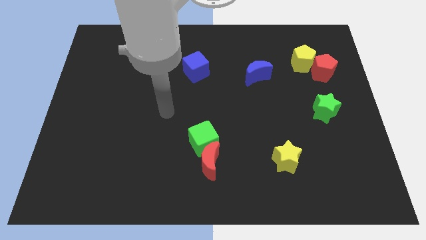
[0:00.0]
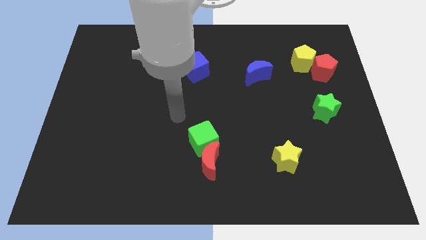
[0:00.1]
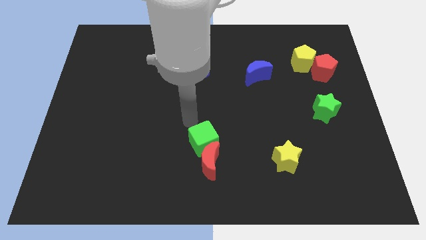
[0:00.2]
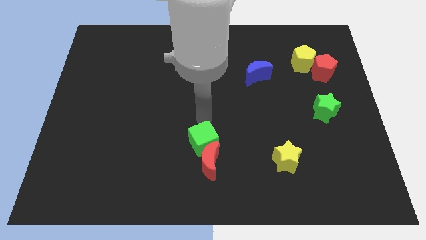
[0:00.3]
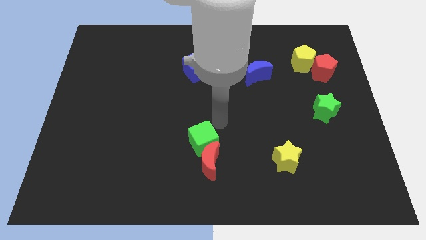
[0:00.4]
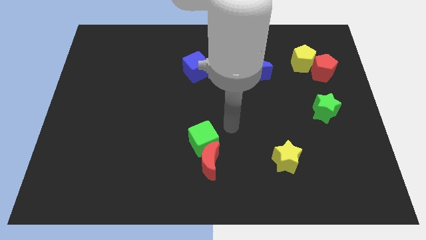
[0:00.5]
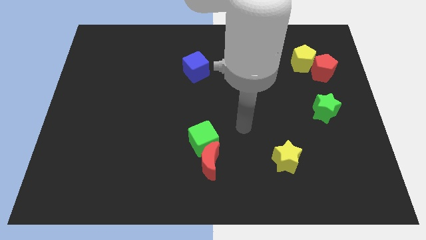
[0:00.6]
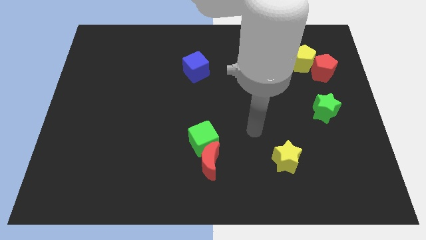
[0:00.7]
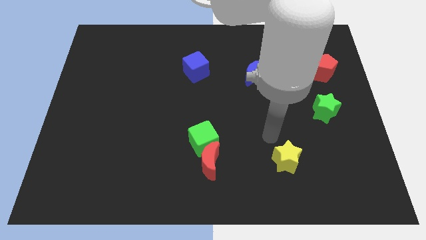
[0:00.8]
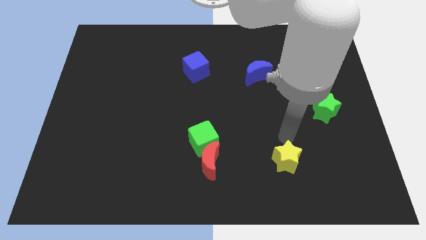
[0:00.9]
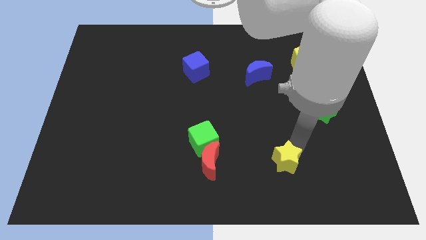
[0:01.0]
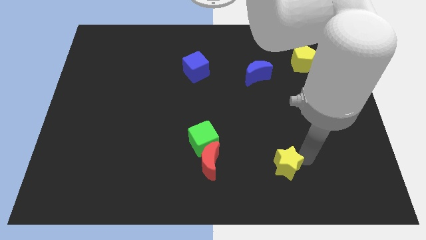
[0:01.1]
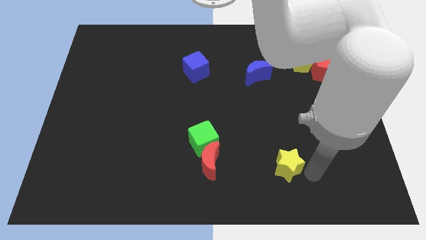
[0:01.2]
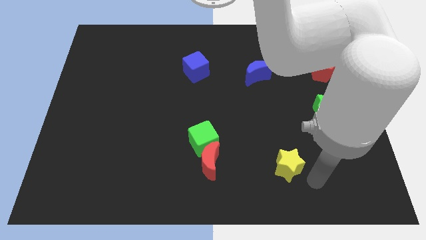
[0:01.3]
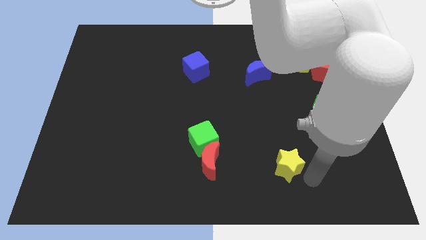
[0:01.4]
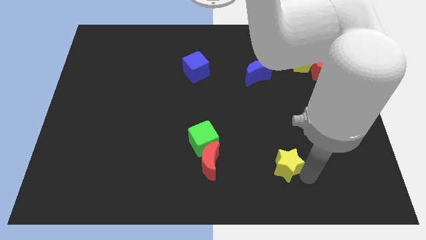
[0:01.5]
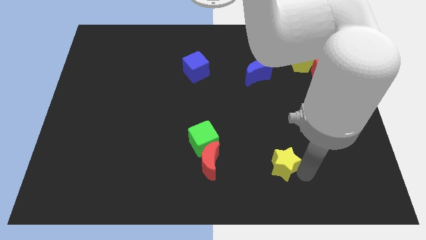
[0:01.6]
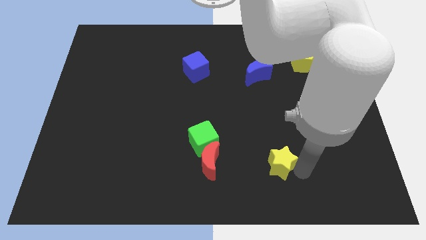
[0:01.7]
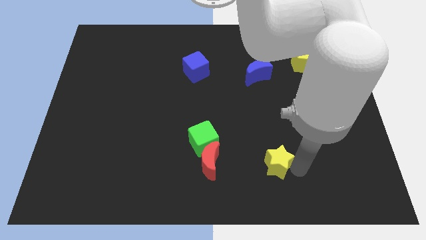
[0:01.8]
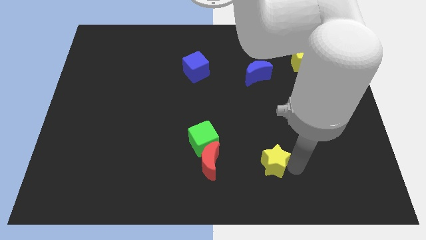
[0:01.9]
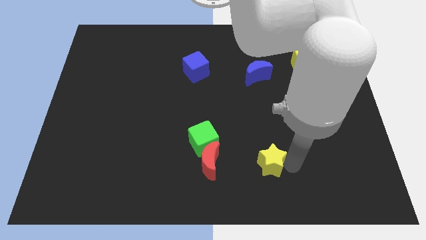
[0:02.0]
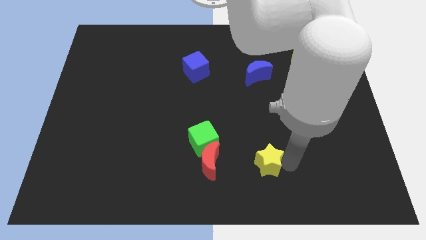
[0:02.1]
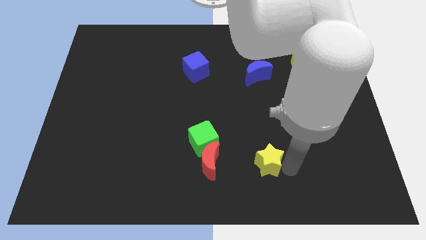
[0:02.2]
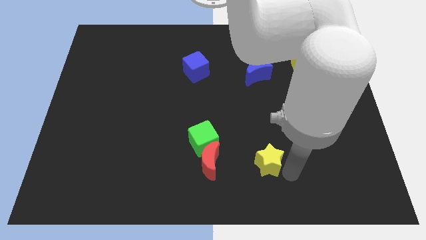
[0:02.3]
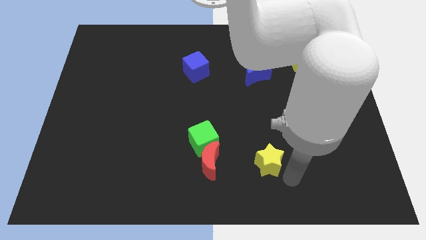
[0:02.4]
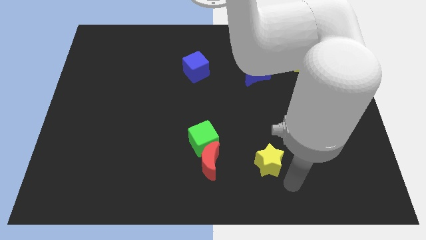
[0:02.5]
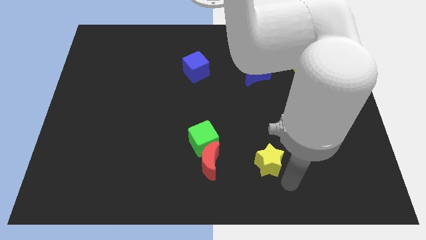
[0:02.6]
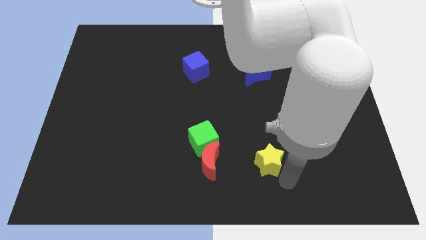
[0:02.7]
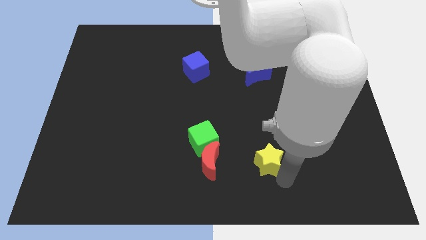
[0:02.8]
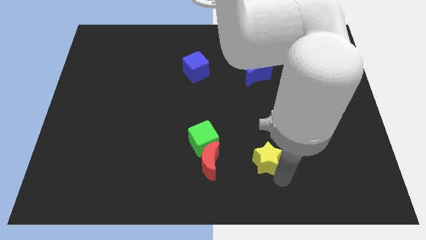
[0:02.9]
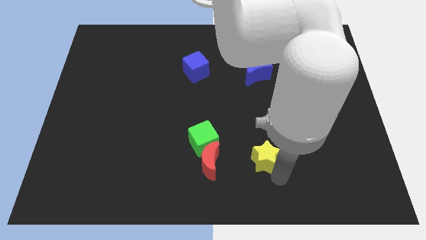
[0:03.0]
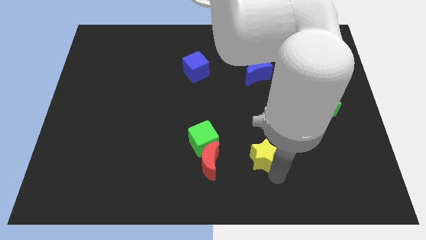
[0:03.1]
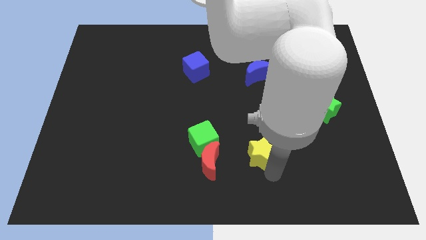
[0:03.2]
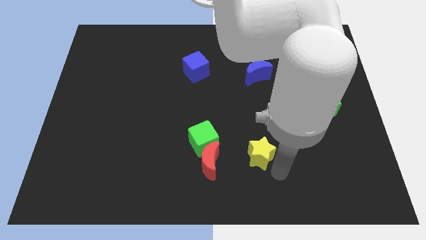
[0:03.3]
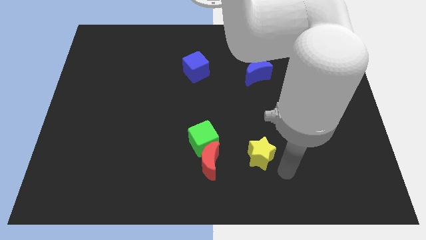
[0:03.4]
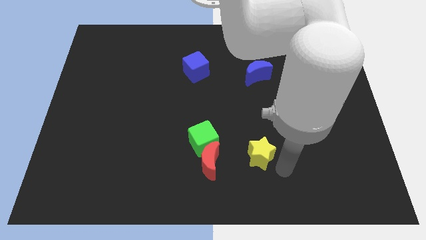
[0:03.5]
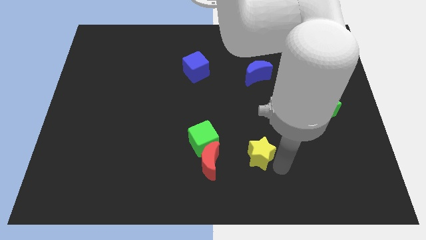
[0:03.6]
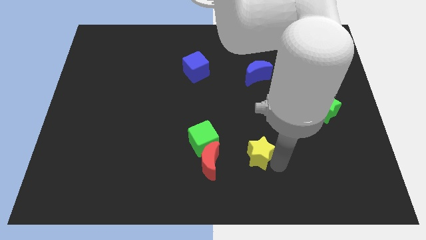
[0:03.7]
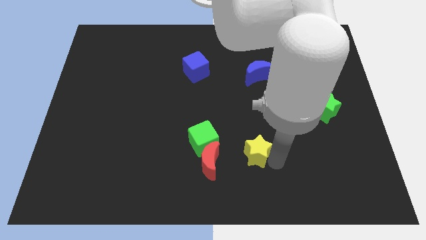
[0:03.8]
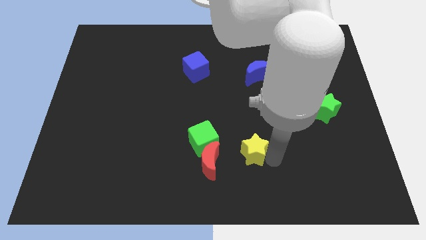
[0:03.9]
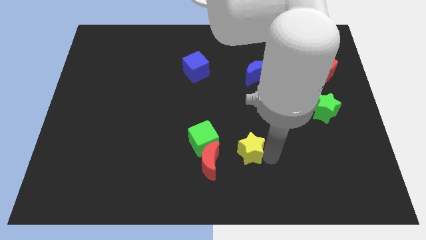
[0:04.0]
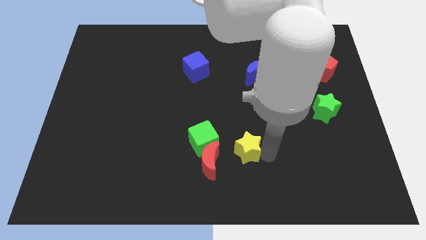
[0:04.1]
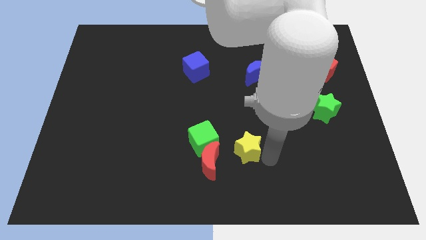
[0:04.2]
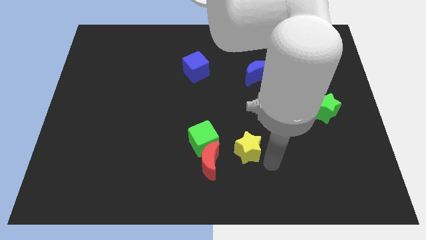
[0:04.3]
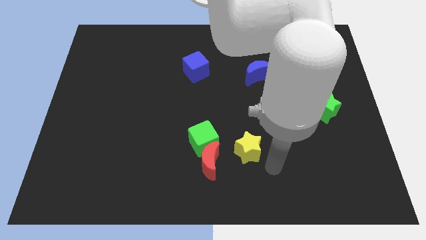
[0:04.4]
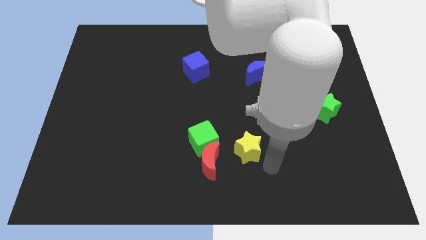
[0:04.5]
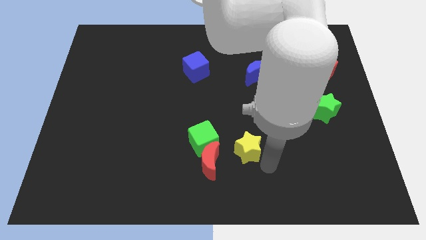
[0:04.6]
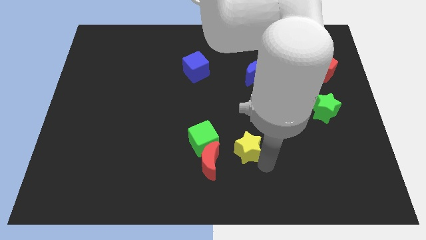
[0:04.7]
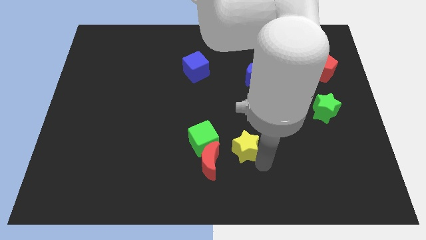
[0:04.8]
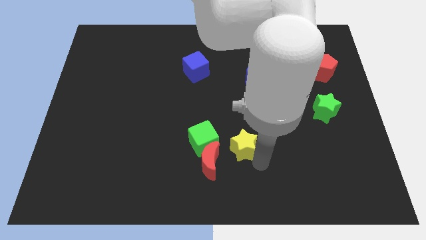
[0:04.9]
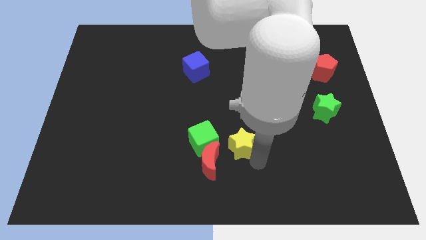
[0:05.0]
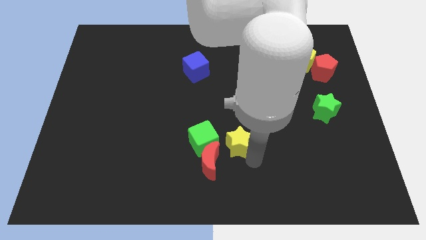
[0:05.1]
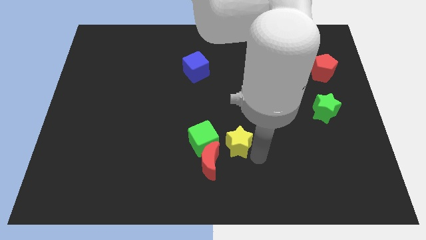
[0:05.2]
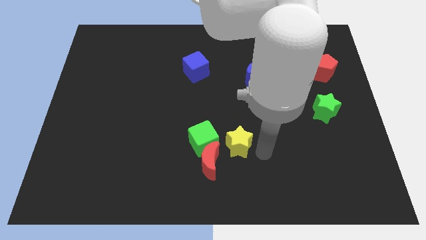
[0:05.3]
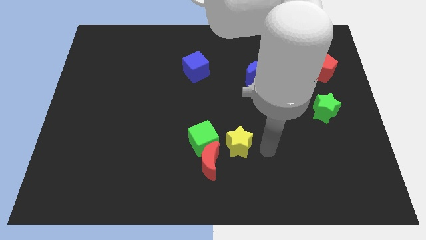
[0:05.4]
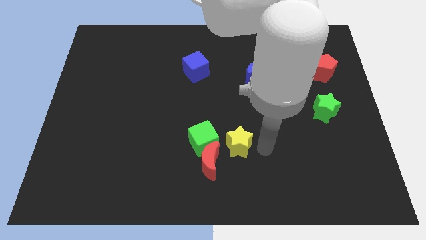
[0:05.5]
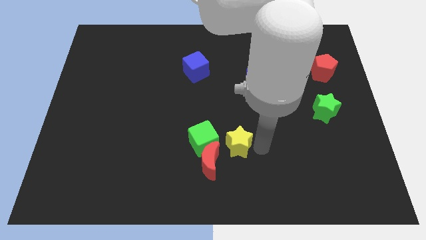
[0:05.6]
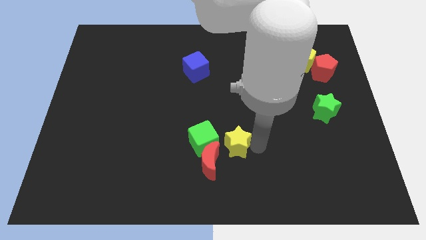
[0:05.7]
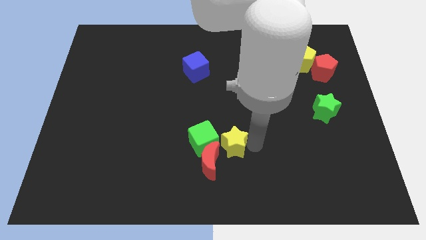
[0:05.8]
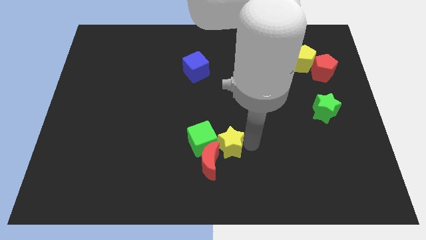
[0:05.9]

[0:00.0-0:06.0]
slide the yellow star to the green cube

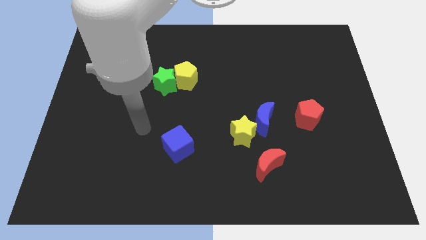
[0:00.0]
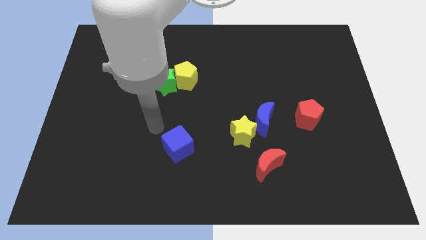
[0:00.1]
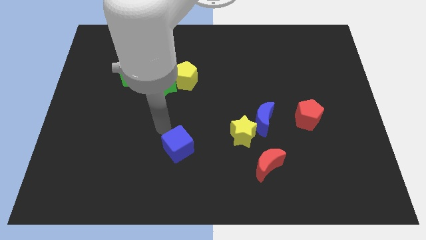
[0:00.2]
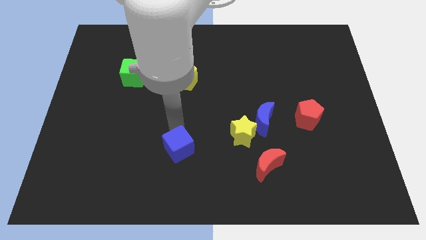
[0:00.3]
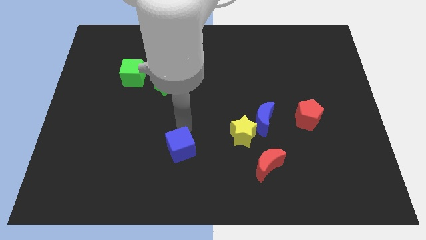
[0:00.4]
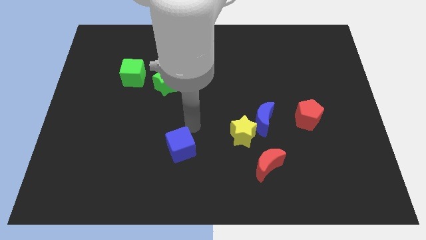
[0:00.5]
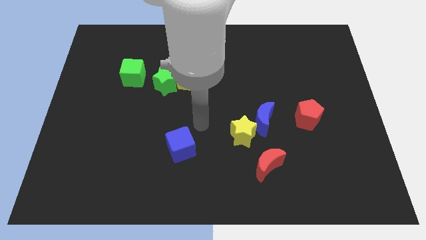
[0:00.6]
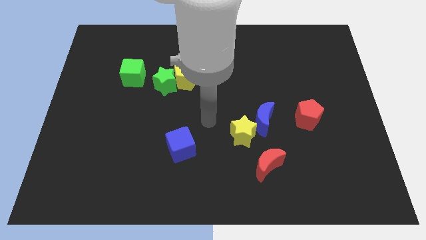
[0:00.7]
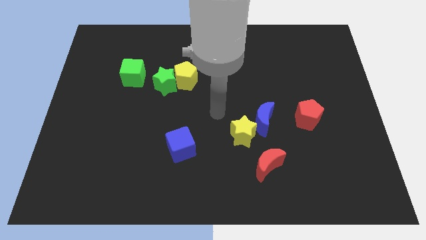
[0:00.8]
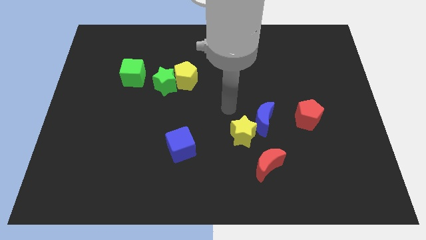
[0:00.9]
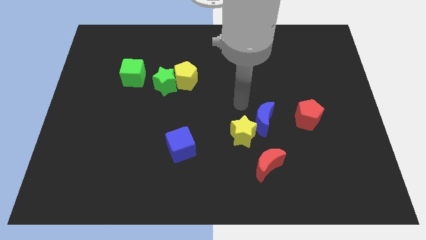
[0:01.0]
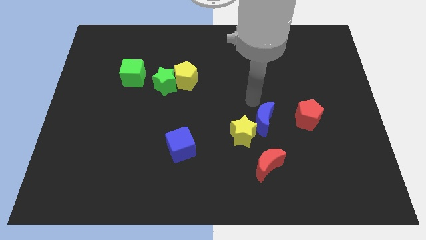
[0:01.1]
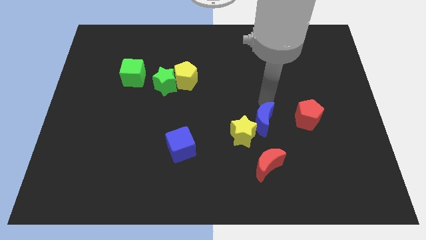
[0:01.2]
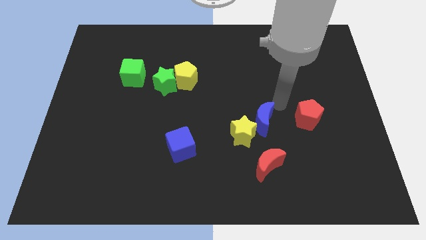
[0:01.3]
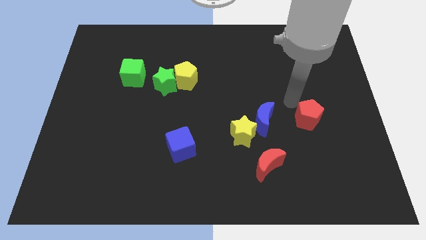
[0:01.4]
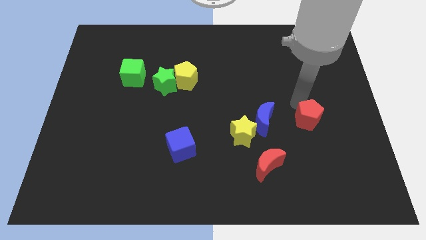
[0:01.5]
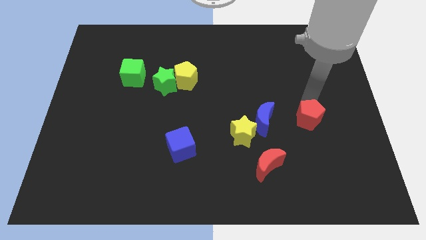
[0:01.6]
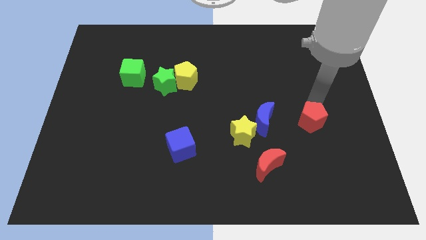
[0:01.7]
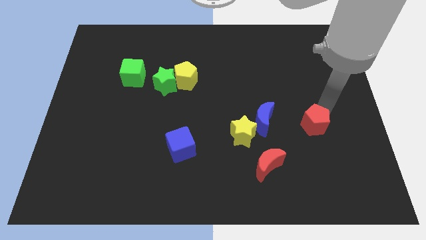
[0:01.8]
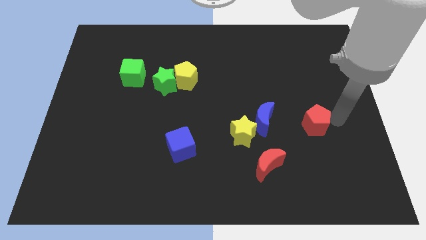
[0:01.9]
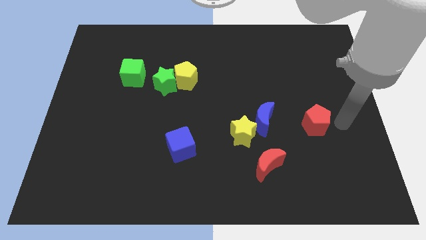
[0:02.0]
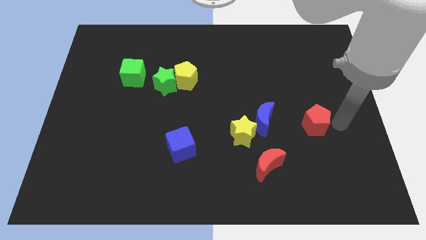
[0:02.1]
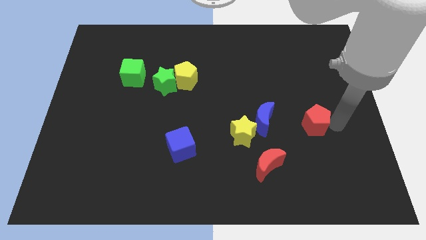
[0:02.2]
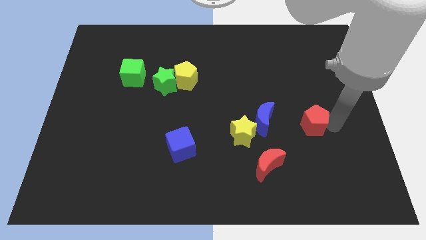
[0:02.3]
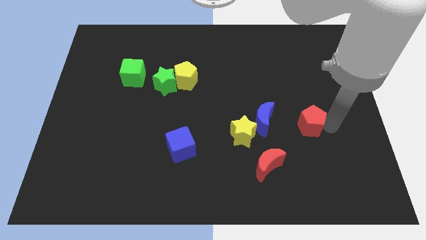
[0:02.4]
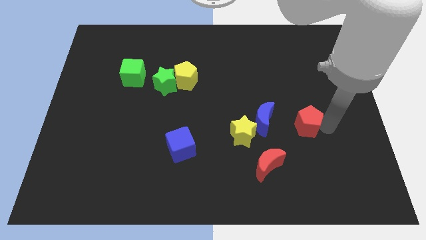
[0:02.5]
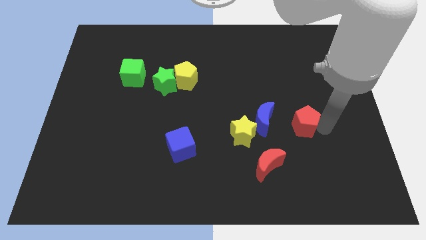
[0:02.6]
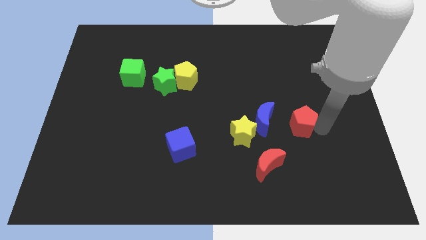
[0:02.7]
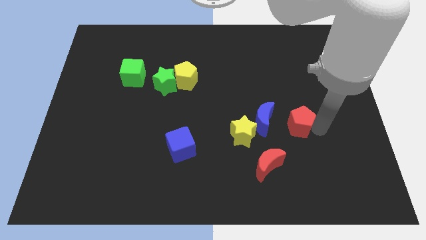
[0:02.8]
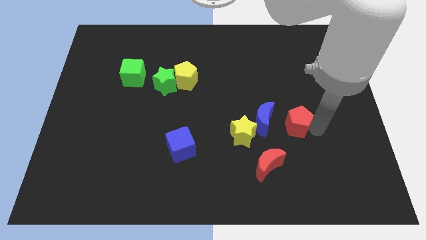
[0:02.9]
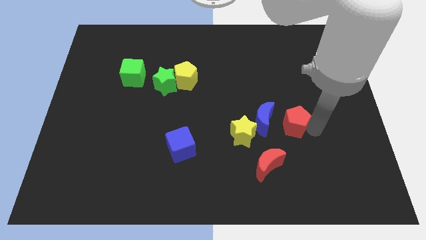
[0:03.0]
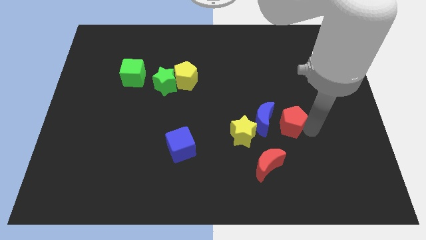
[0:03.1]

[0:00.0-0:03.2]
put the red pentagon next to the blue moon
